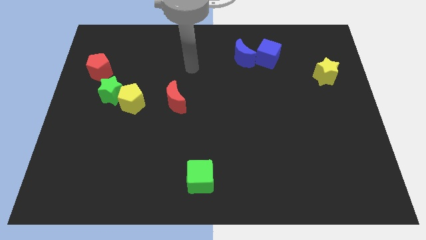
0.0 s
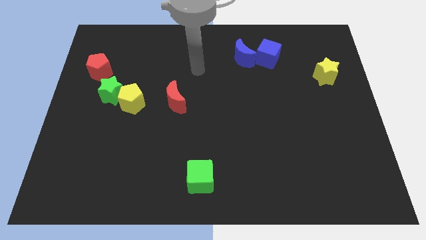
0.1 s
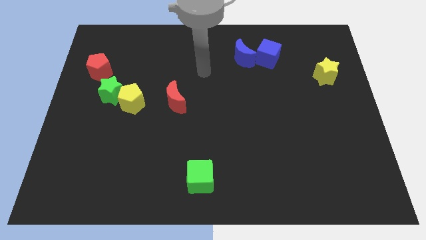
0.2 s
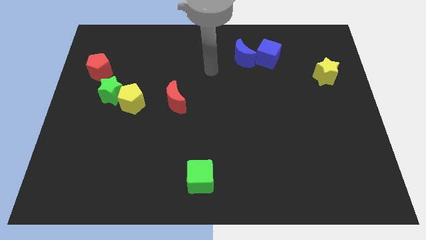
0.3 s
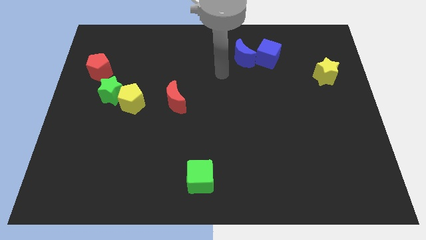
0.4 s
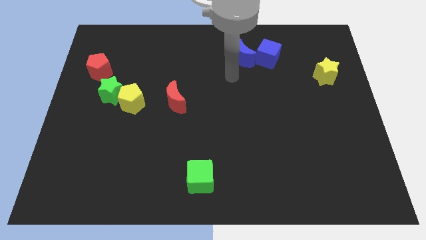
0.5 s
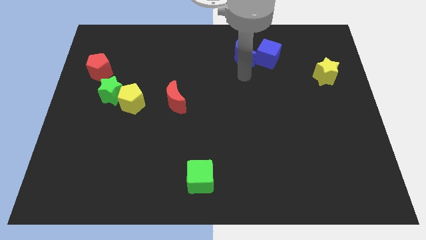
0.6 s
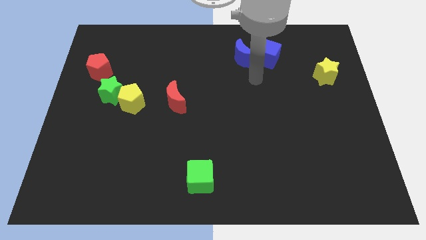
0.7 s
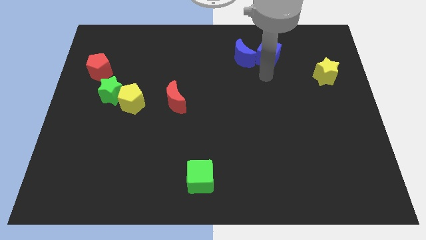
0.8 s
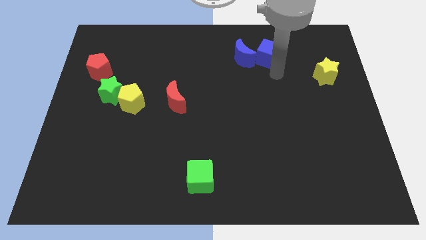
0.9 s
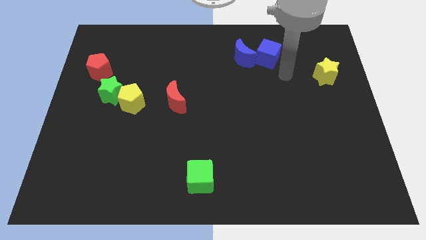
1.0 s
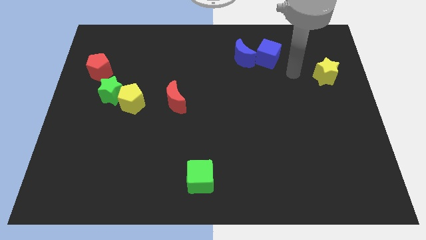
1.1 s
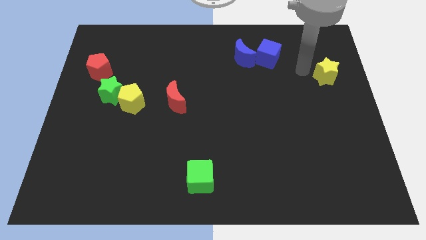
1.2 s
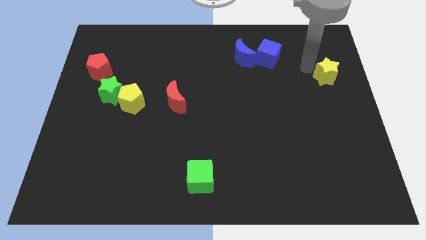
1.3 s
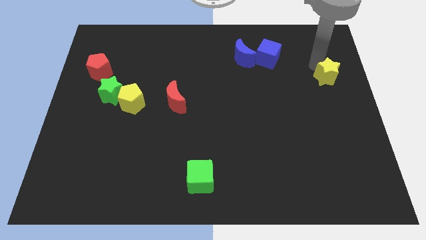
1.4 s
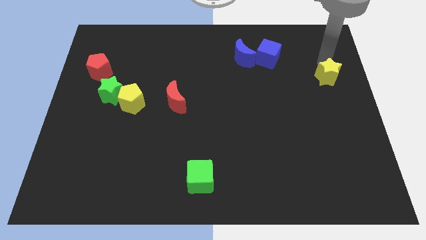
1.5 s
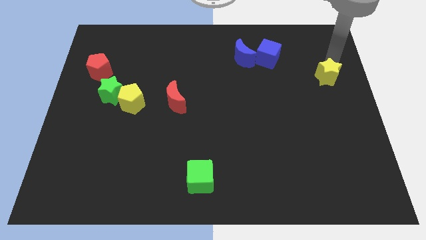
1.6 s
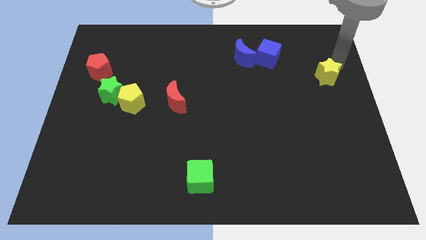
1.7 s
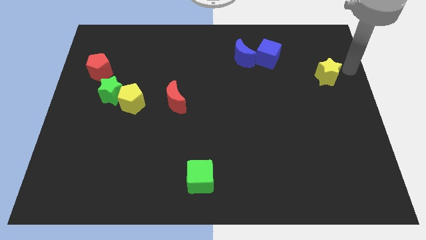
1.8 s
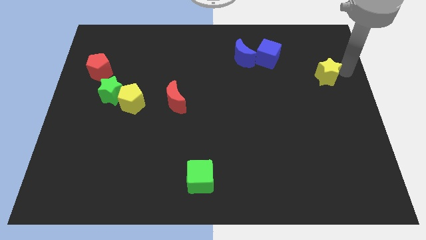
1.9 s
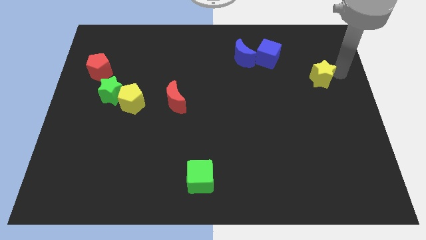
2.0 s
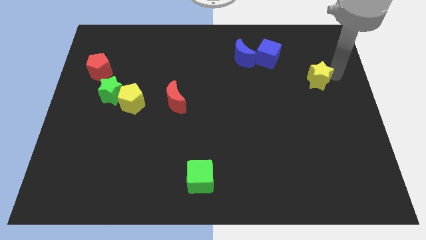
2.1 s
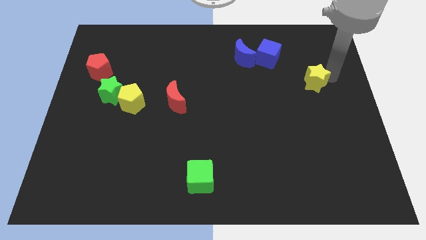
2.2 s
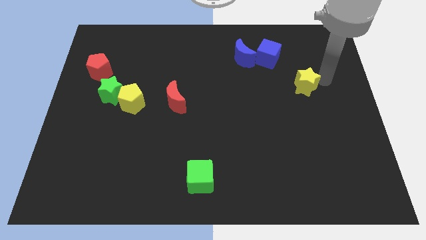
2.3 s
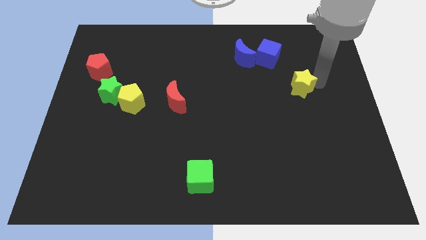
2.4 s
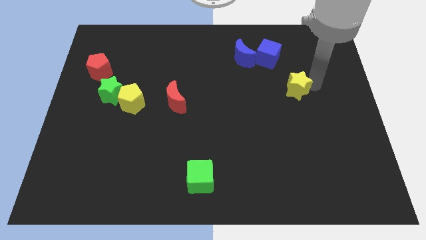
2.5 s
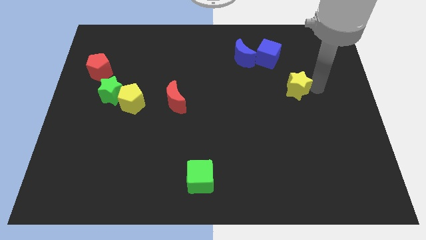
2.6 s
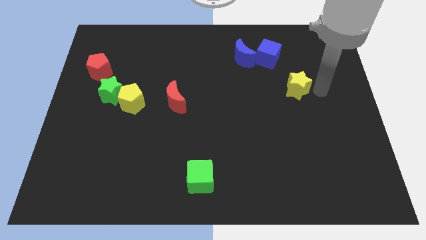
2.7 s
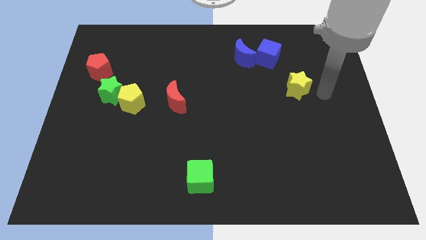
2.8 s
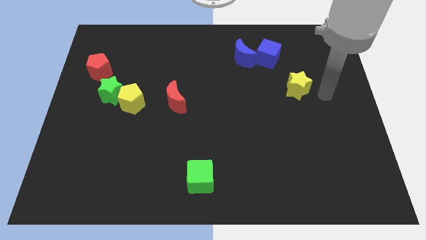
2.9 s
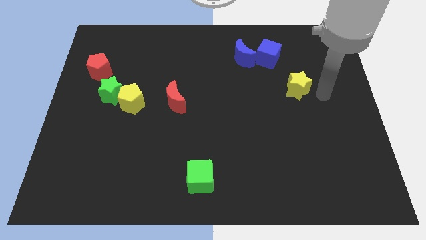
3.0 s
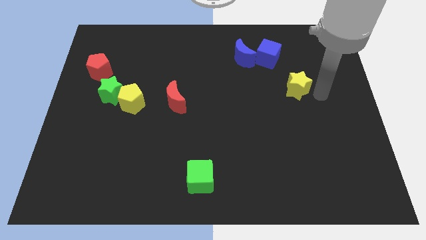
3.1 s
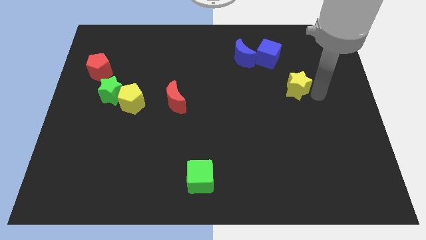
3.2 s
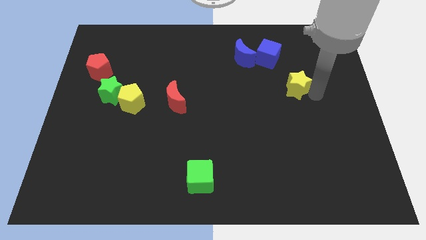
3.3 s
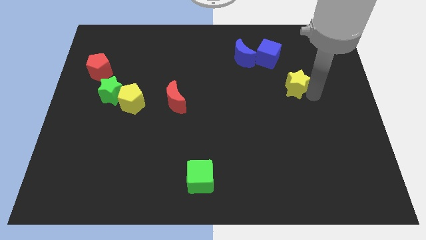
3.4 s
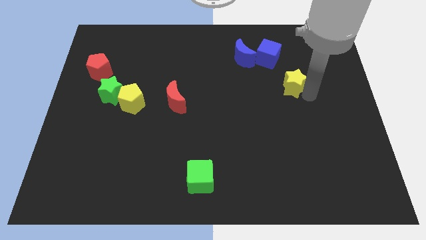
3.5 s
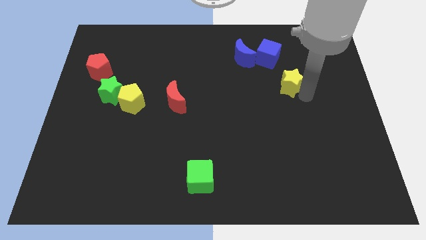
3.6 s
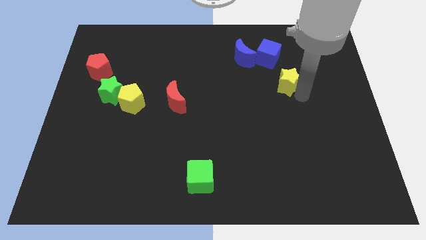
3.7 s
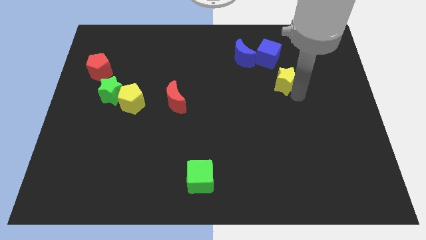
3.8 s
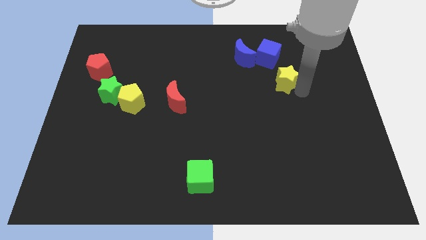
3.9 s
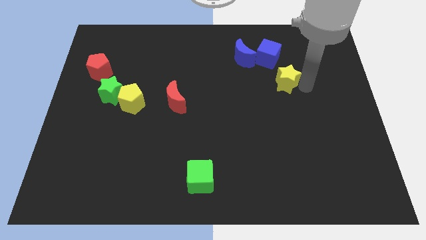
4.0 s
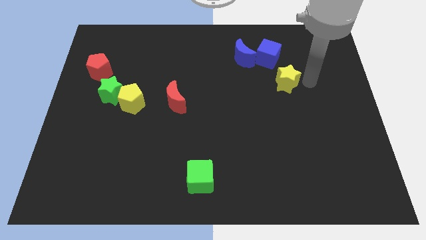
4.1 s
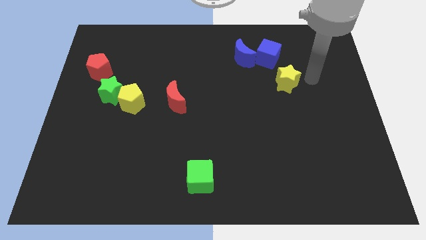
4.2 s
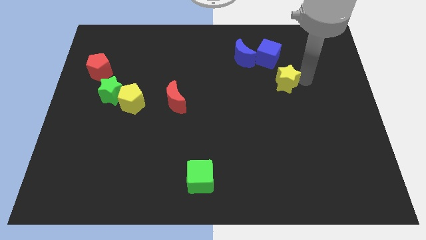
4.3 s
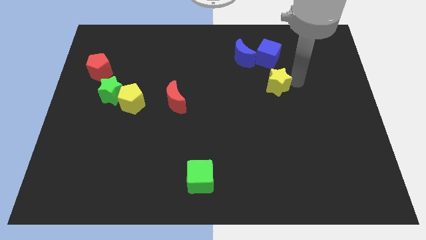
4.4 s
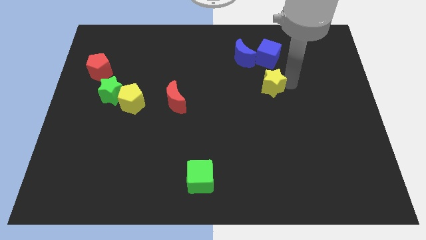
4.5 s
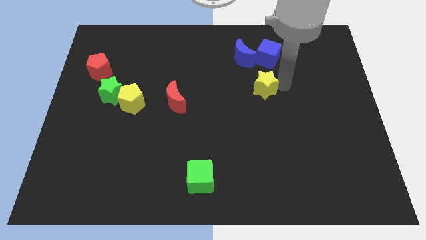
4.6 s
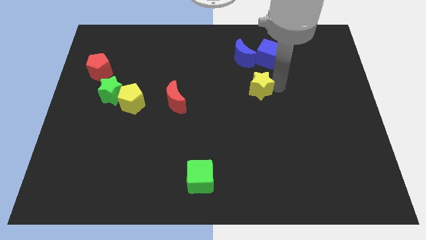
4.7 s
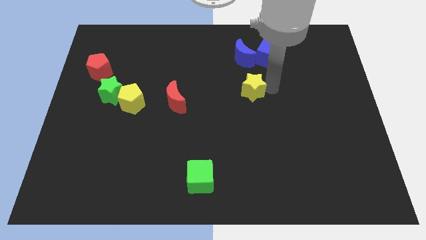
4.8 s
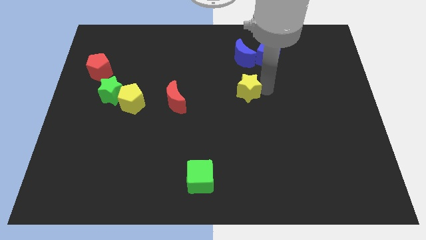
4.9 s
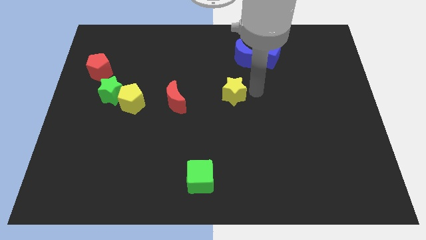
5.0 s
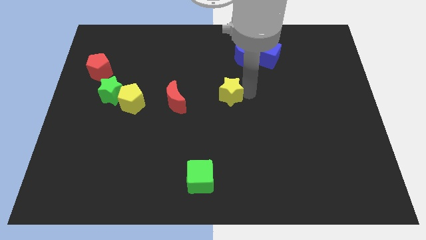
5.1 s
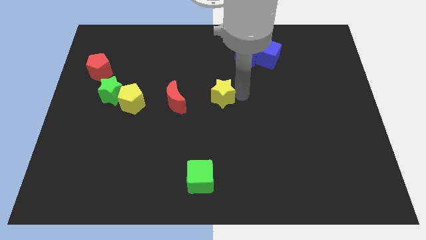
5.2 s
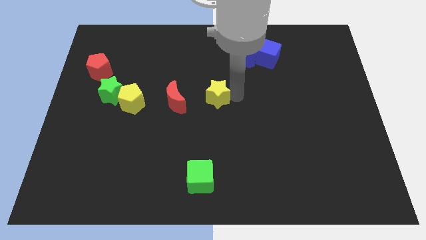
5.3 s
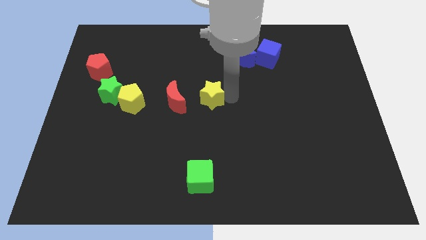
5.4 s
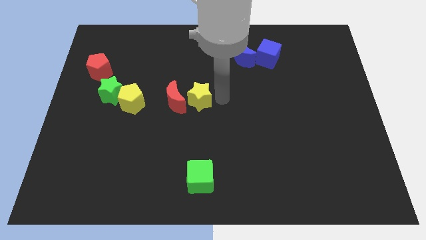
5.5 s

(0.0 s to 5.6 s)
put the yellow star to the red moon

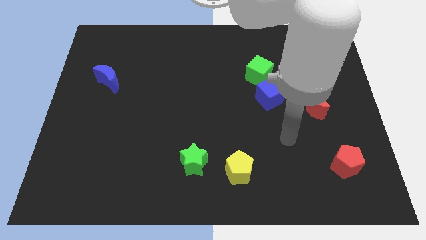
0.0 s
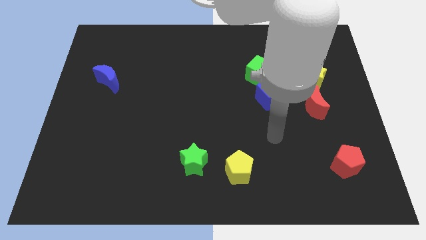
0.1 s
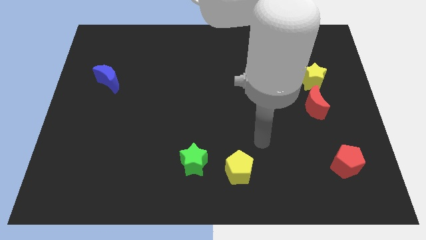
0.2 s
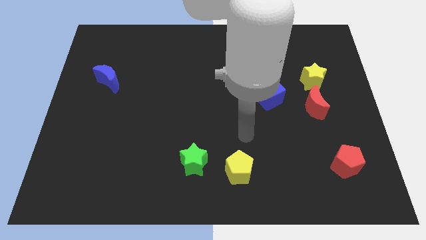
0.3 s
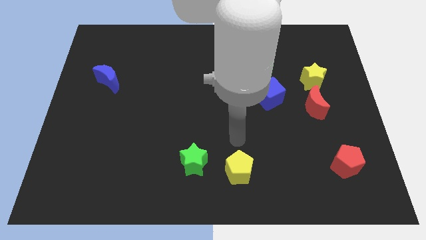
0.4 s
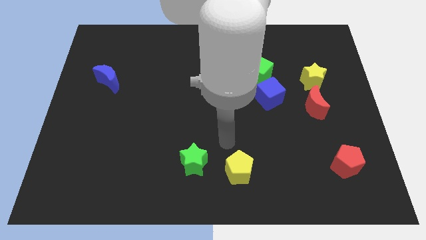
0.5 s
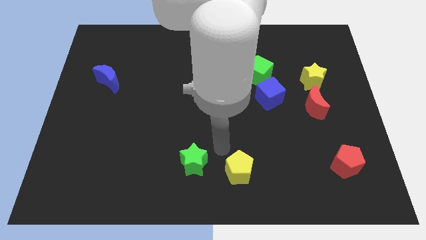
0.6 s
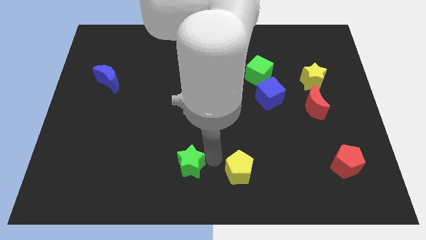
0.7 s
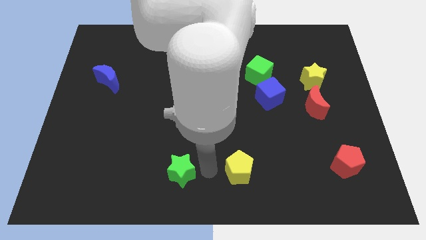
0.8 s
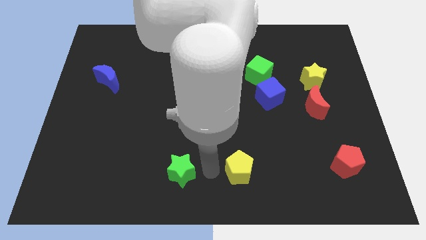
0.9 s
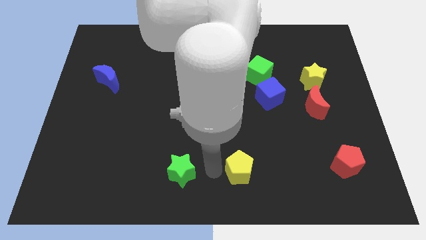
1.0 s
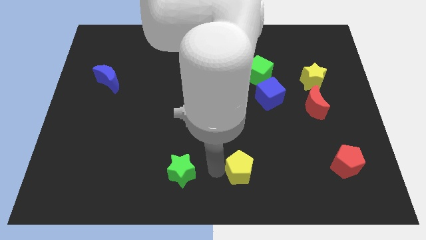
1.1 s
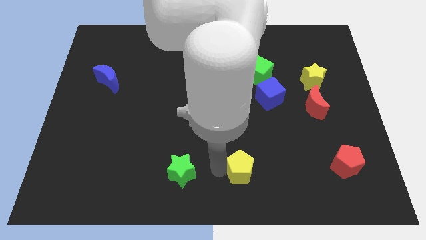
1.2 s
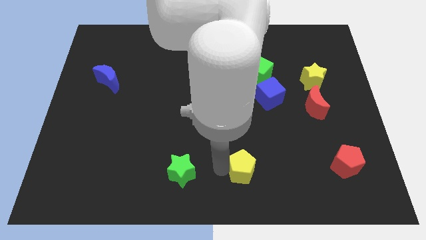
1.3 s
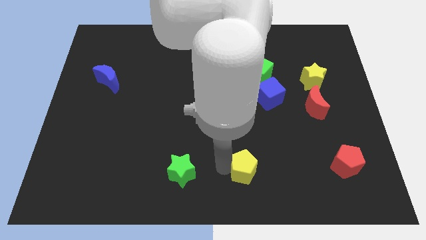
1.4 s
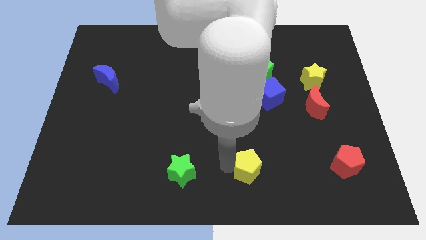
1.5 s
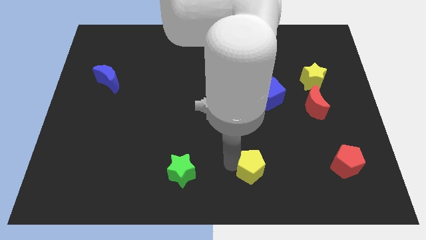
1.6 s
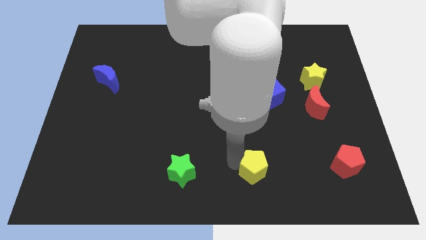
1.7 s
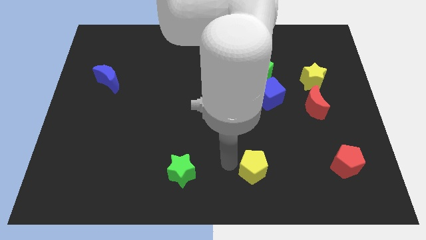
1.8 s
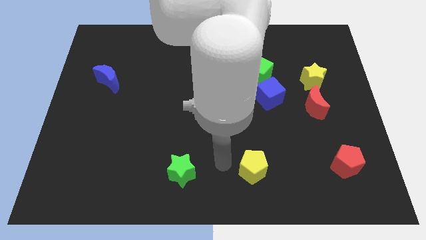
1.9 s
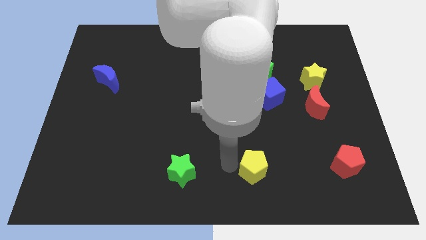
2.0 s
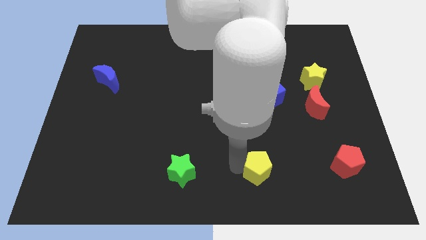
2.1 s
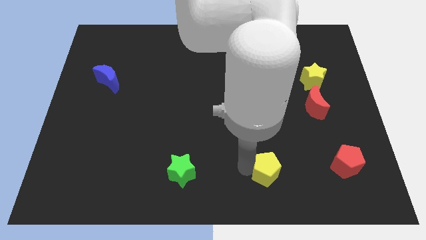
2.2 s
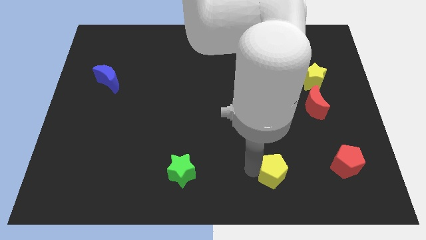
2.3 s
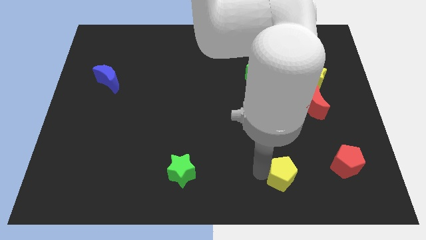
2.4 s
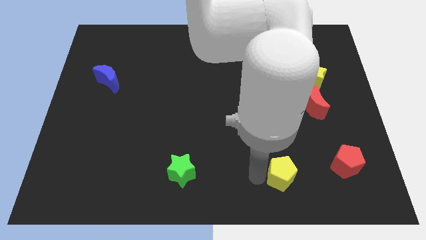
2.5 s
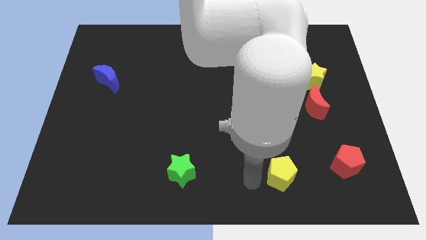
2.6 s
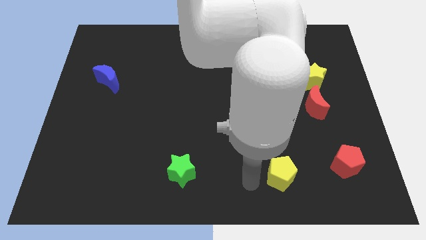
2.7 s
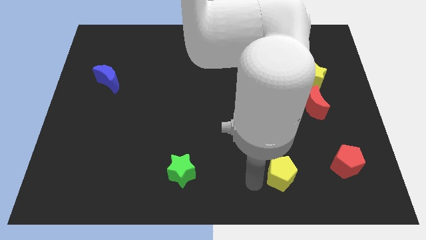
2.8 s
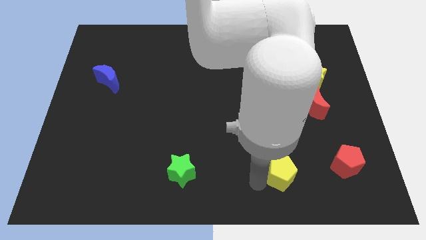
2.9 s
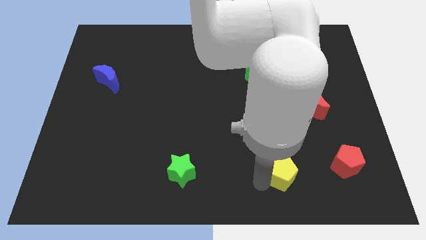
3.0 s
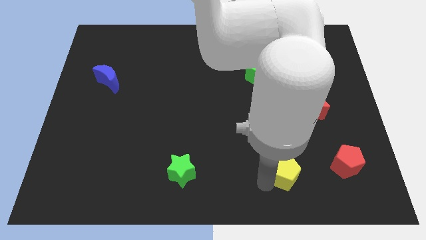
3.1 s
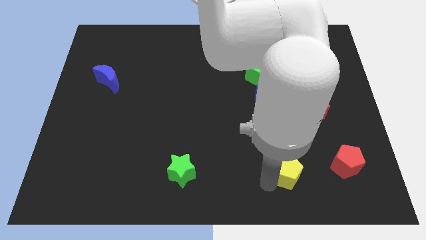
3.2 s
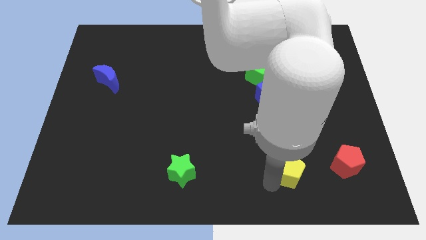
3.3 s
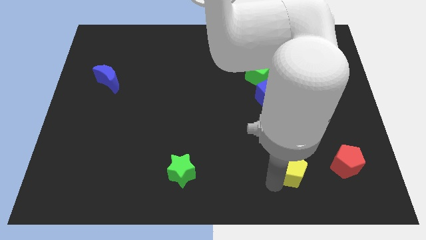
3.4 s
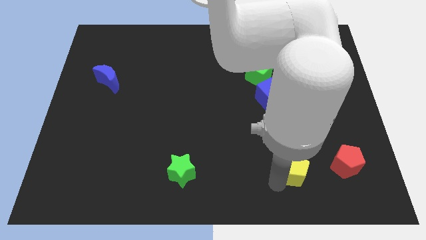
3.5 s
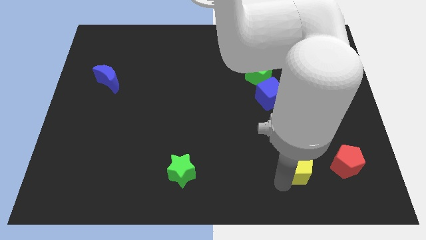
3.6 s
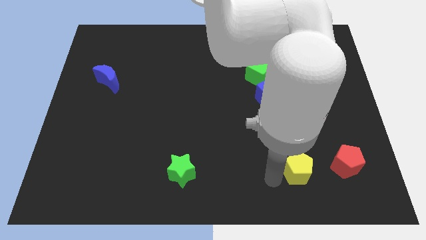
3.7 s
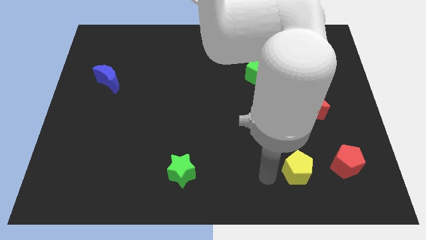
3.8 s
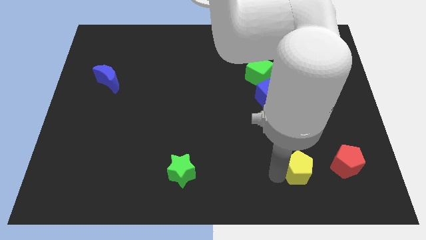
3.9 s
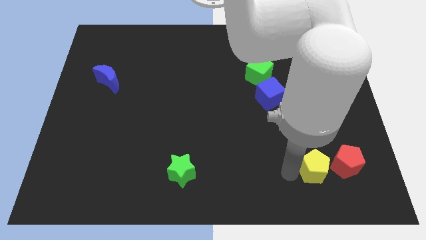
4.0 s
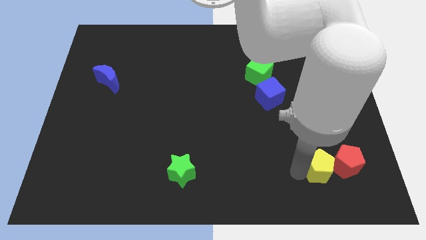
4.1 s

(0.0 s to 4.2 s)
move the yellow pentagon close to the red pentagon
